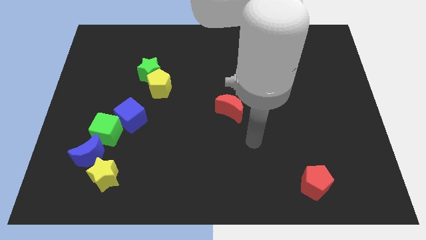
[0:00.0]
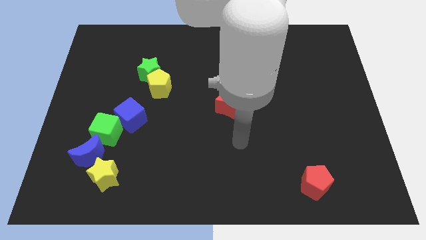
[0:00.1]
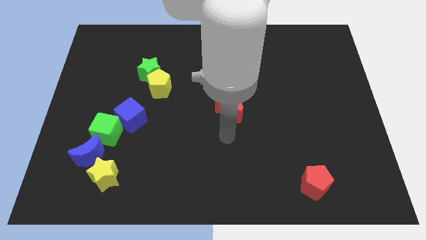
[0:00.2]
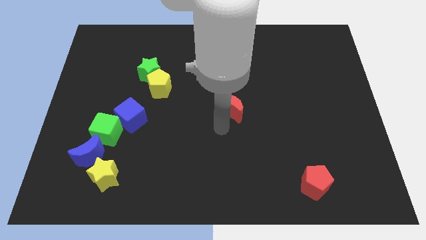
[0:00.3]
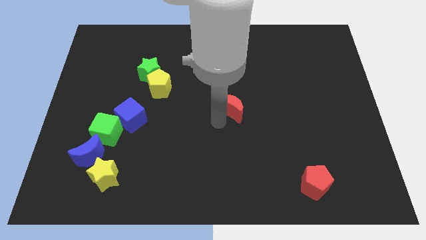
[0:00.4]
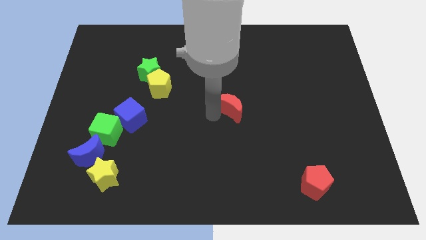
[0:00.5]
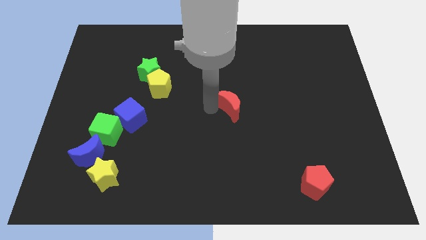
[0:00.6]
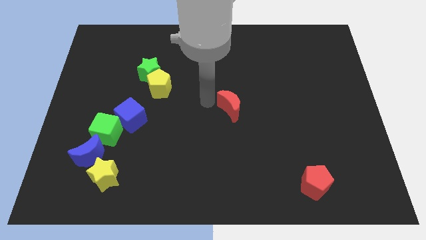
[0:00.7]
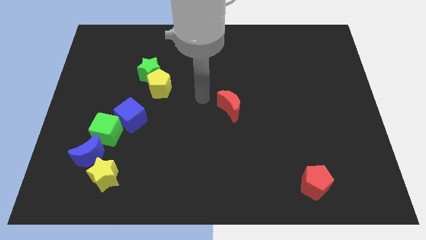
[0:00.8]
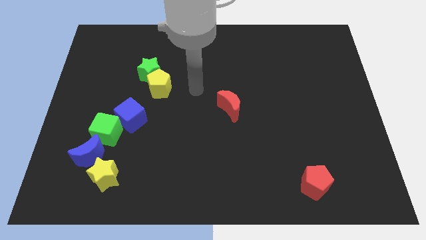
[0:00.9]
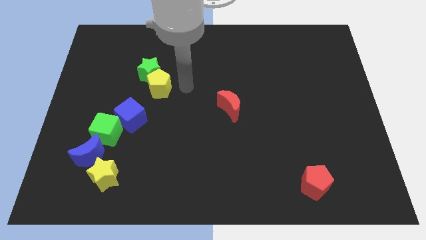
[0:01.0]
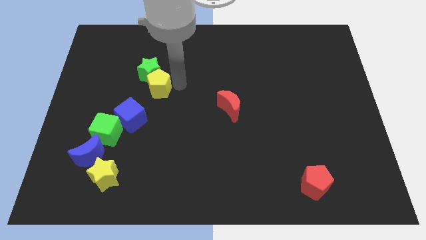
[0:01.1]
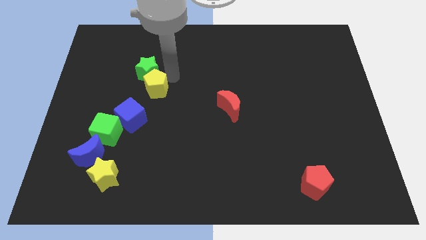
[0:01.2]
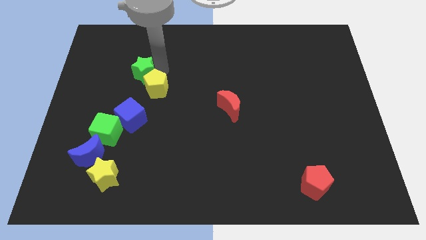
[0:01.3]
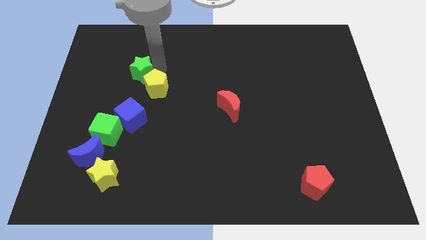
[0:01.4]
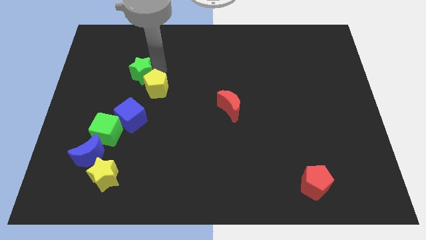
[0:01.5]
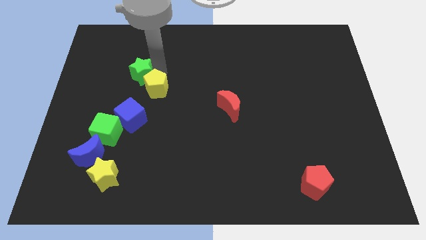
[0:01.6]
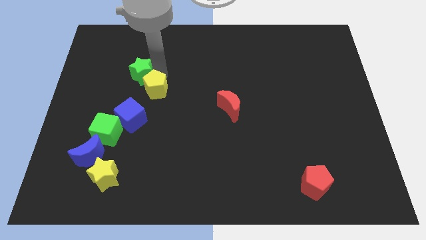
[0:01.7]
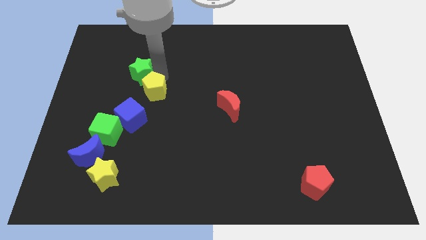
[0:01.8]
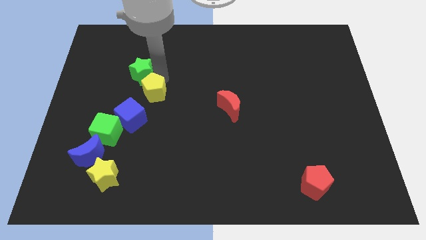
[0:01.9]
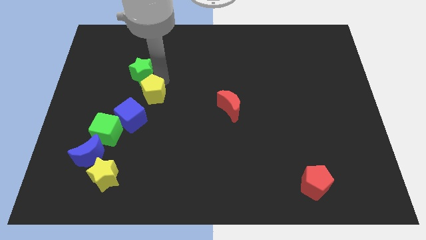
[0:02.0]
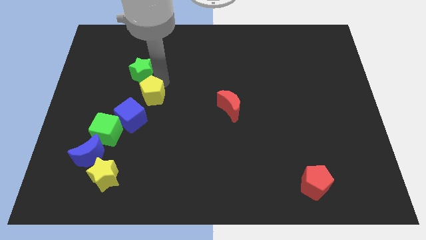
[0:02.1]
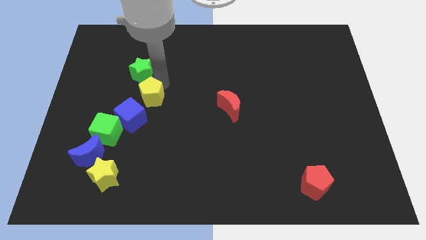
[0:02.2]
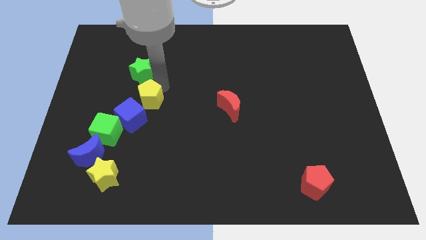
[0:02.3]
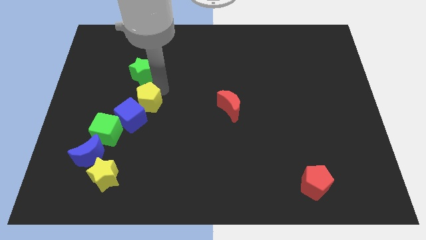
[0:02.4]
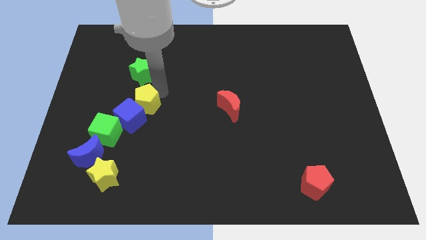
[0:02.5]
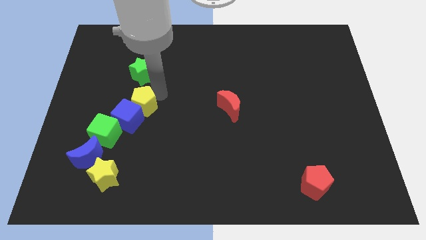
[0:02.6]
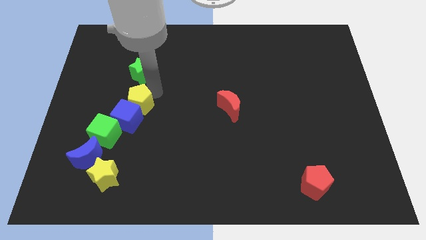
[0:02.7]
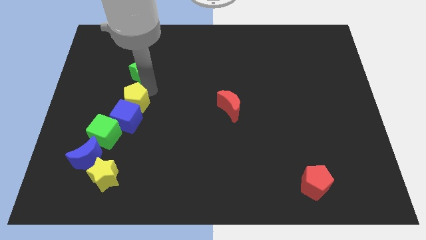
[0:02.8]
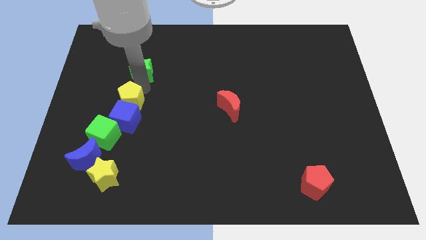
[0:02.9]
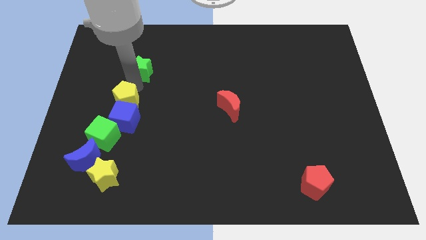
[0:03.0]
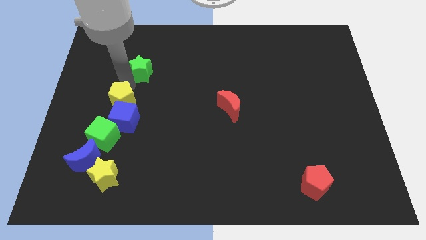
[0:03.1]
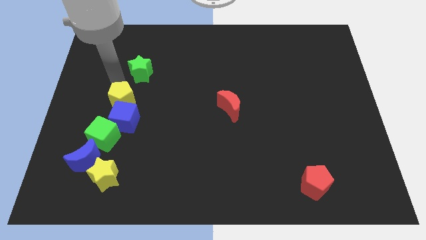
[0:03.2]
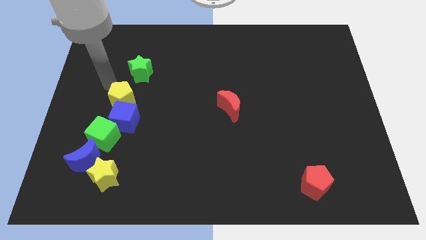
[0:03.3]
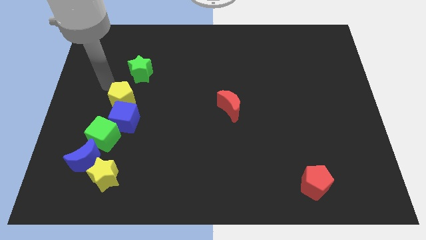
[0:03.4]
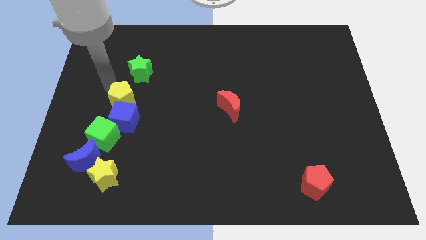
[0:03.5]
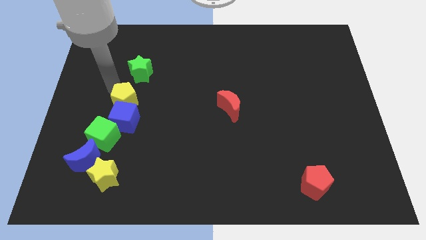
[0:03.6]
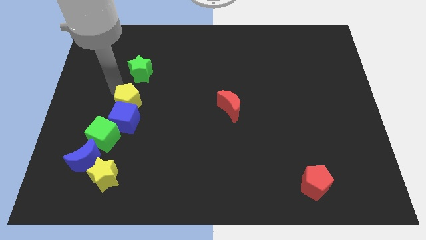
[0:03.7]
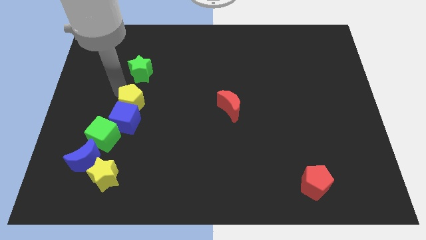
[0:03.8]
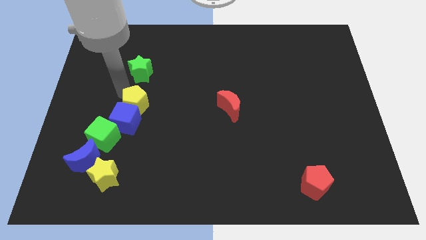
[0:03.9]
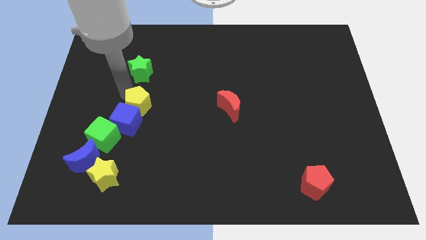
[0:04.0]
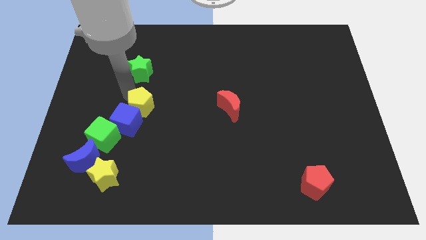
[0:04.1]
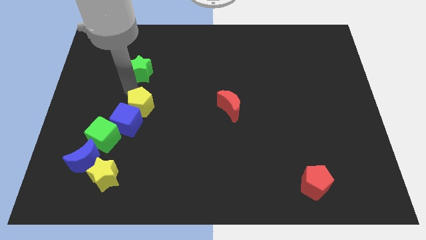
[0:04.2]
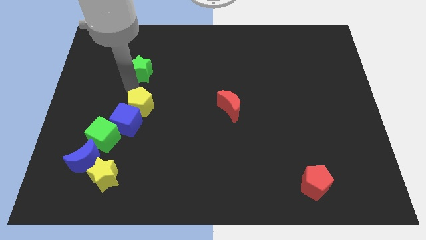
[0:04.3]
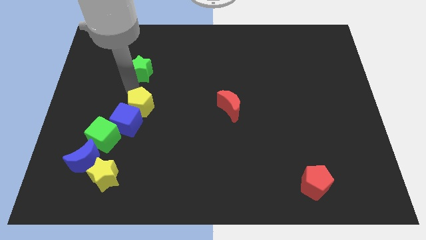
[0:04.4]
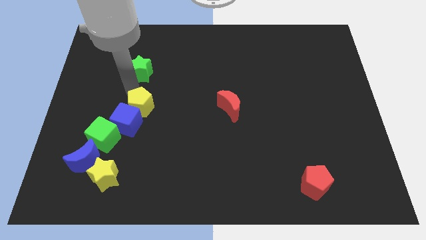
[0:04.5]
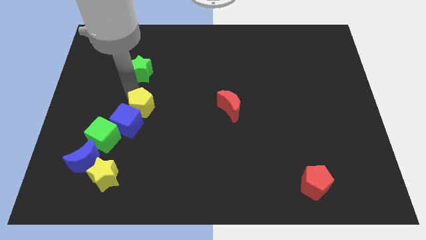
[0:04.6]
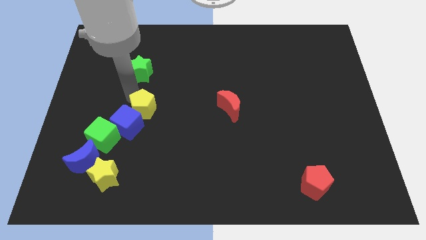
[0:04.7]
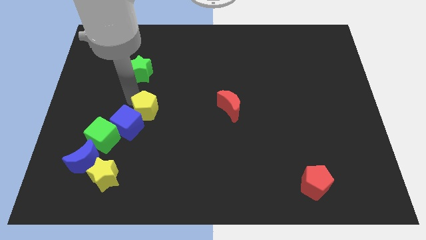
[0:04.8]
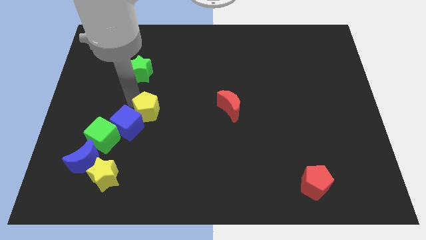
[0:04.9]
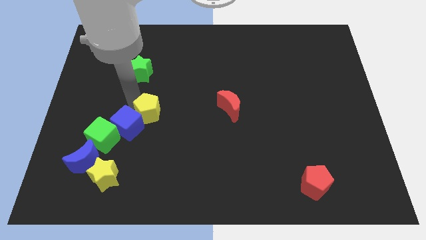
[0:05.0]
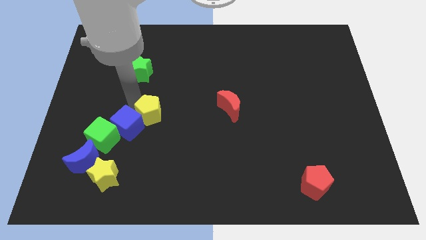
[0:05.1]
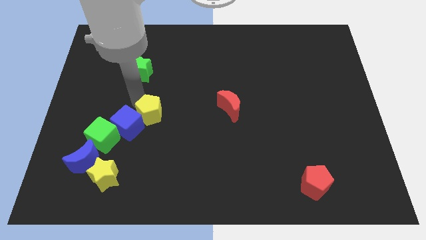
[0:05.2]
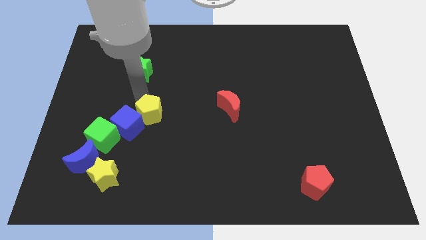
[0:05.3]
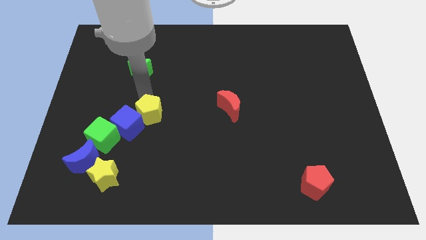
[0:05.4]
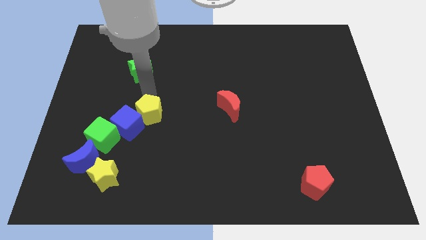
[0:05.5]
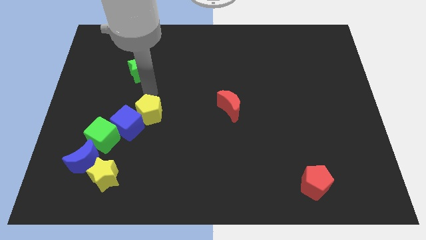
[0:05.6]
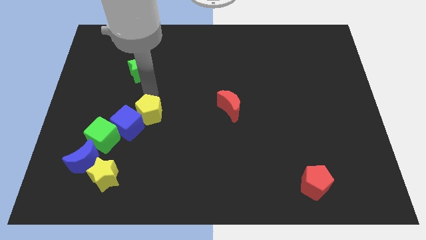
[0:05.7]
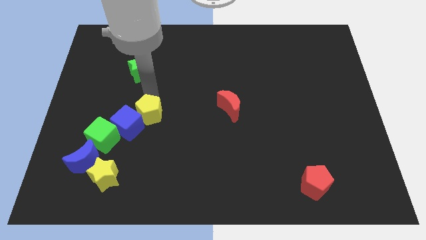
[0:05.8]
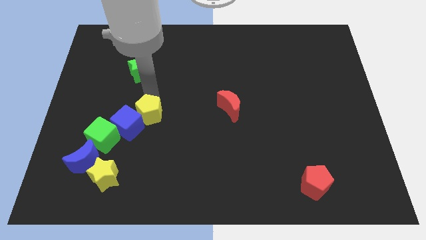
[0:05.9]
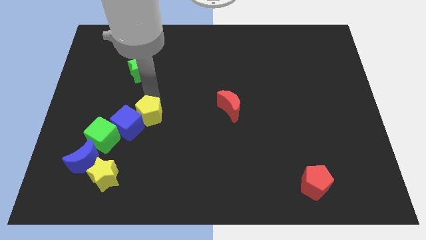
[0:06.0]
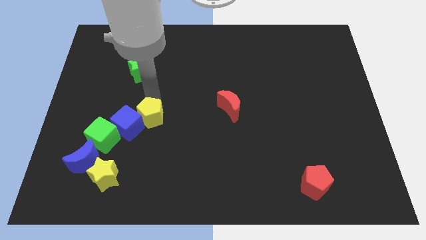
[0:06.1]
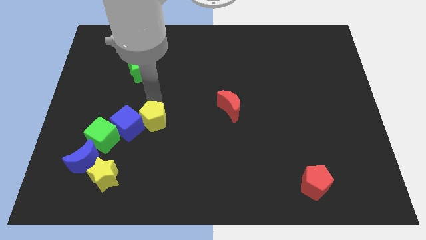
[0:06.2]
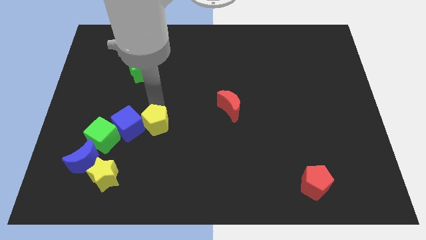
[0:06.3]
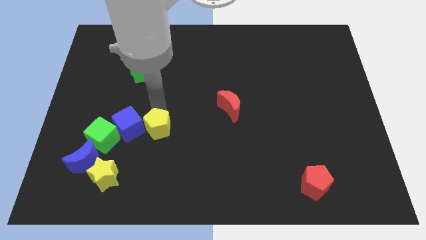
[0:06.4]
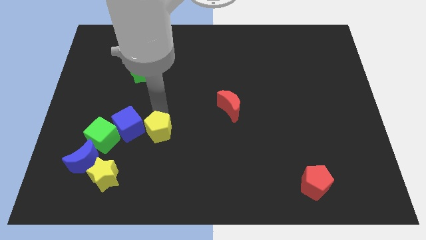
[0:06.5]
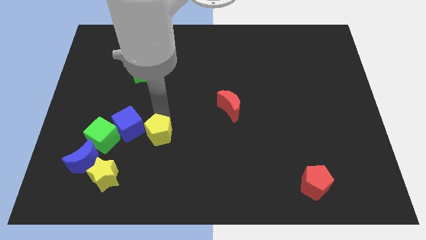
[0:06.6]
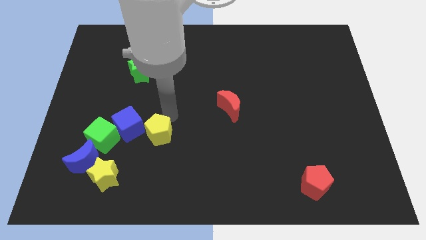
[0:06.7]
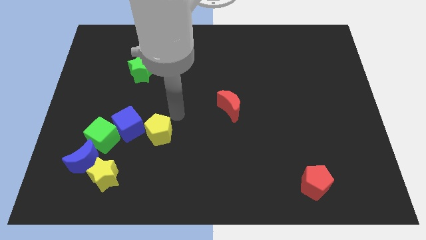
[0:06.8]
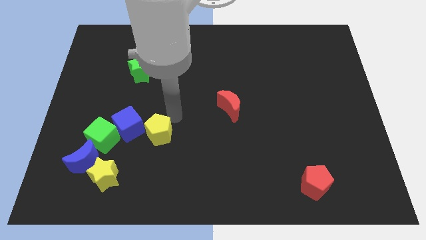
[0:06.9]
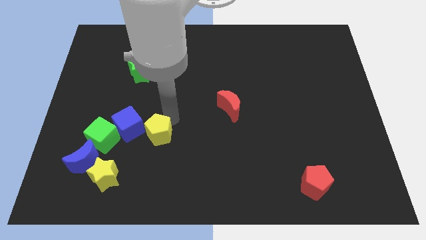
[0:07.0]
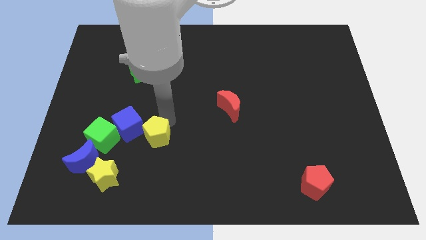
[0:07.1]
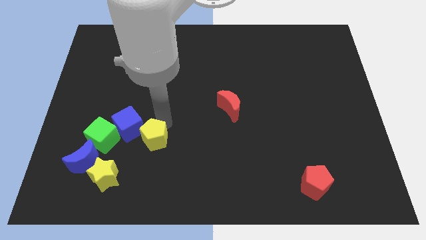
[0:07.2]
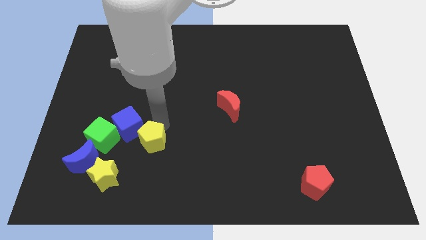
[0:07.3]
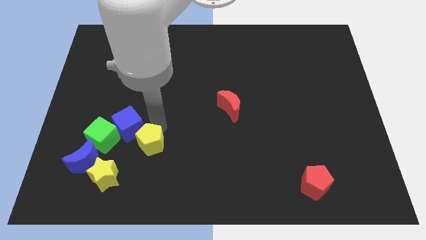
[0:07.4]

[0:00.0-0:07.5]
move the yellow pentagon just right of the blue moon
